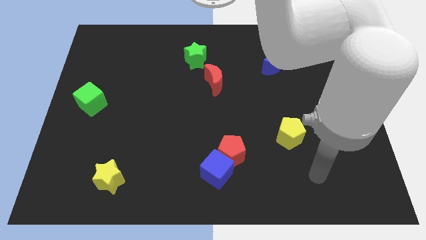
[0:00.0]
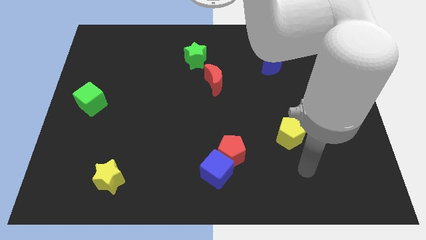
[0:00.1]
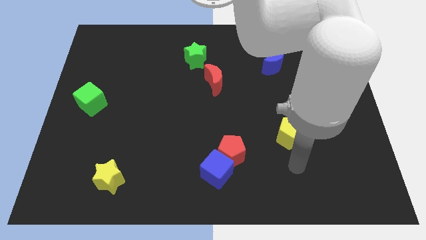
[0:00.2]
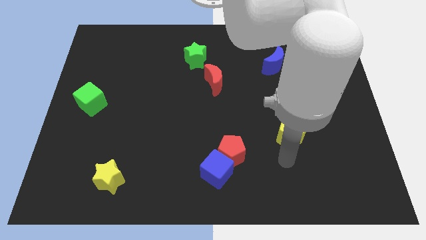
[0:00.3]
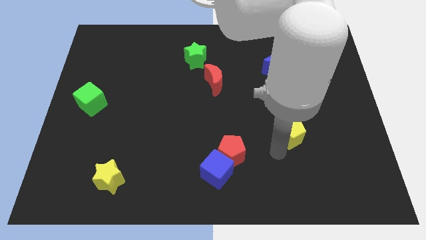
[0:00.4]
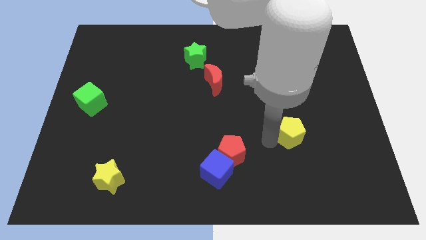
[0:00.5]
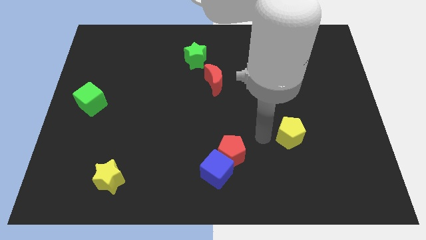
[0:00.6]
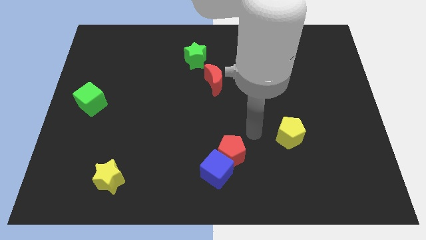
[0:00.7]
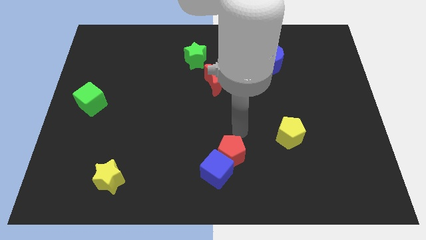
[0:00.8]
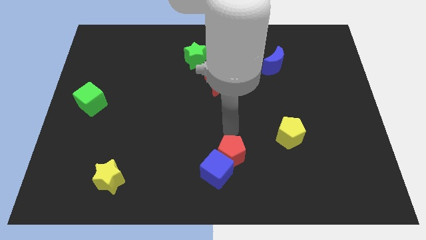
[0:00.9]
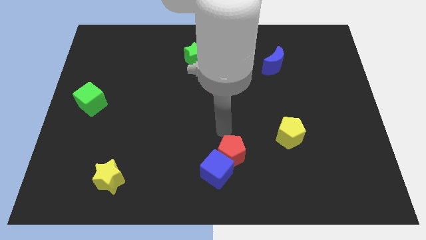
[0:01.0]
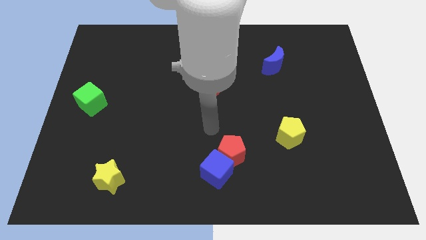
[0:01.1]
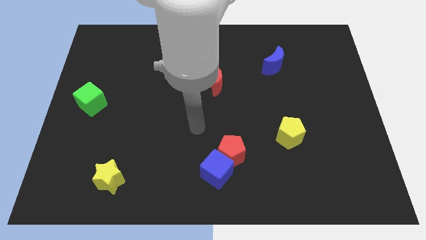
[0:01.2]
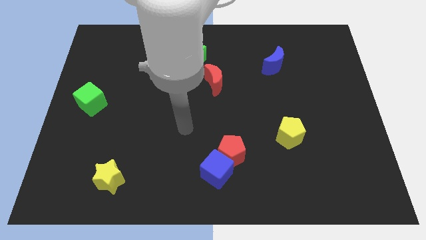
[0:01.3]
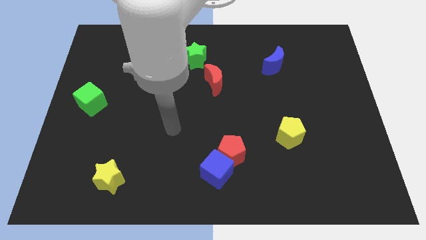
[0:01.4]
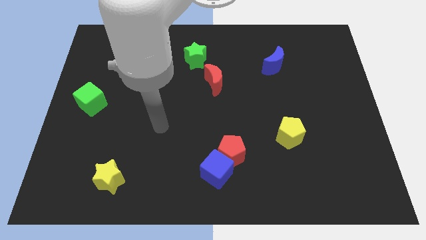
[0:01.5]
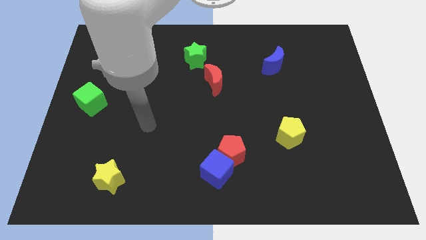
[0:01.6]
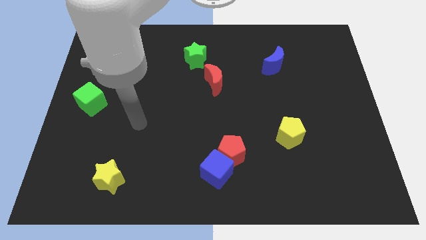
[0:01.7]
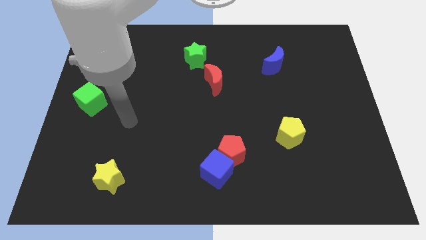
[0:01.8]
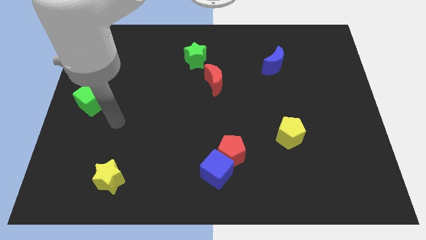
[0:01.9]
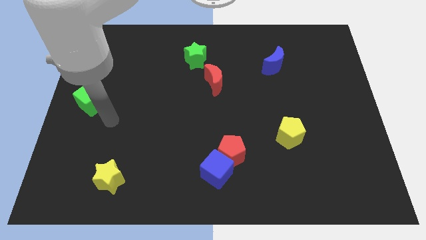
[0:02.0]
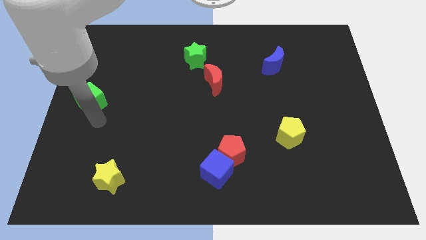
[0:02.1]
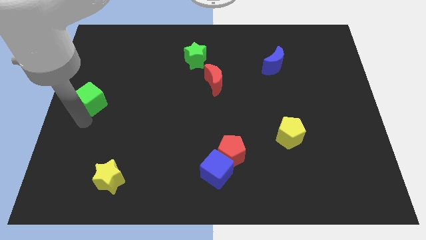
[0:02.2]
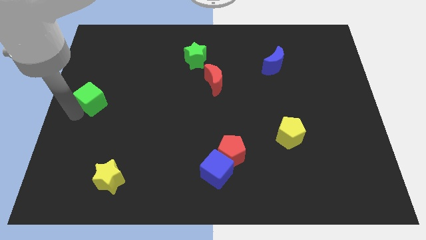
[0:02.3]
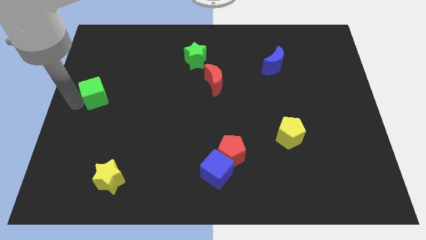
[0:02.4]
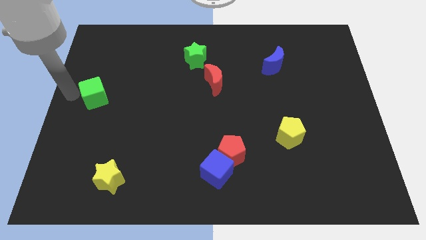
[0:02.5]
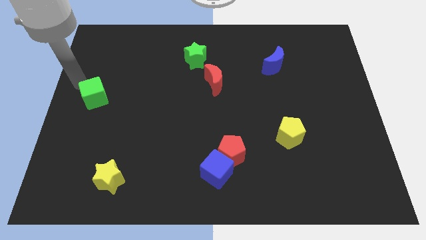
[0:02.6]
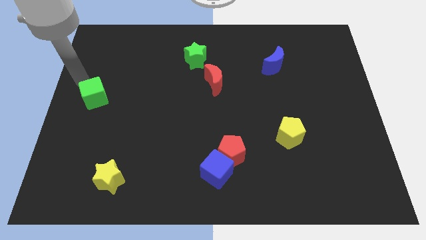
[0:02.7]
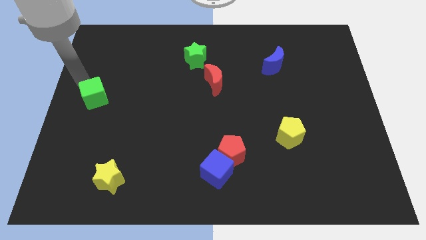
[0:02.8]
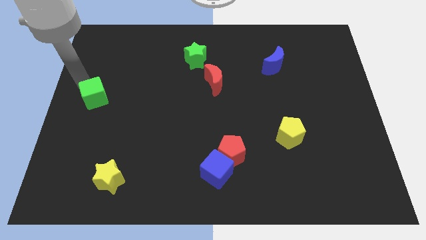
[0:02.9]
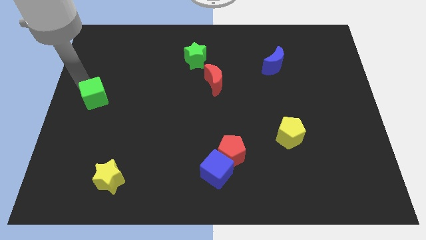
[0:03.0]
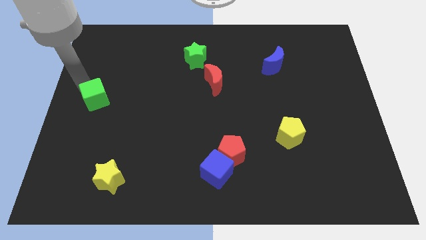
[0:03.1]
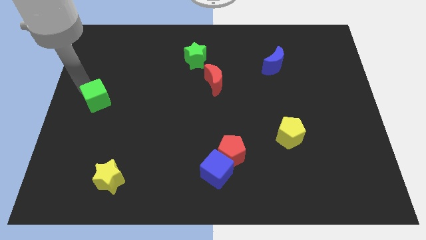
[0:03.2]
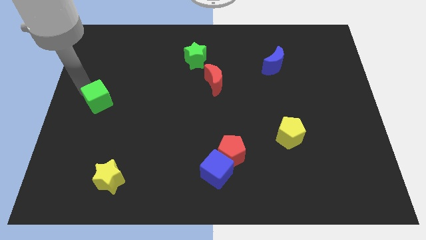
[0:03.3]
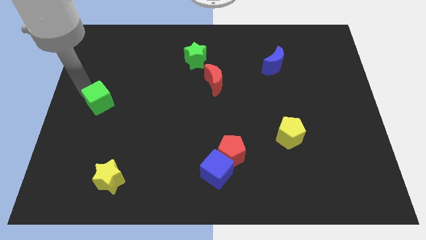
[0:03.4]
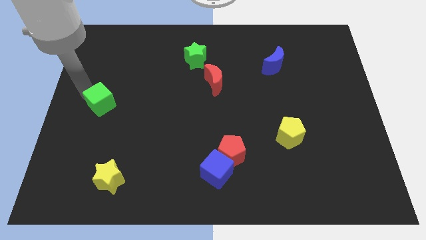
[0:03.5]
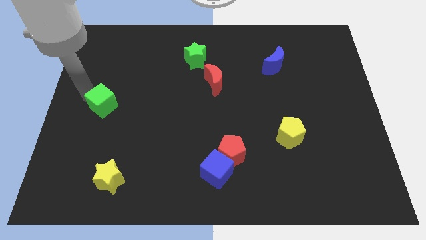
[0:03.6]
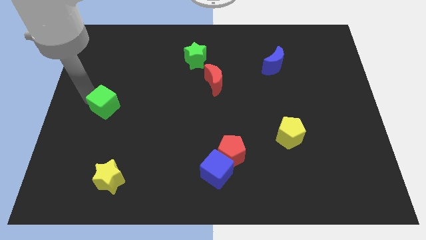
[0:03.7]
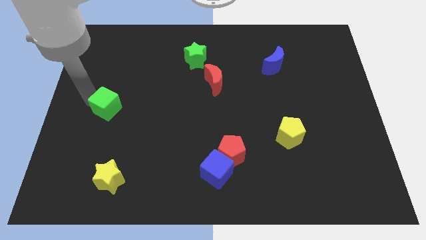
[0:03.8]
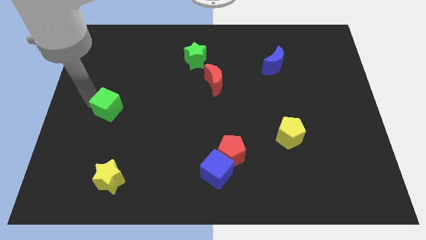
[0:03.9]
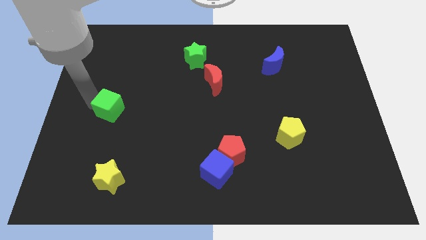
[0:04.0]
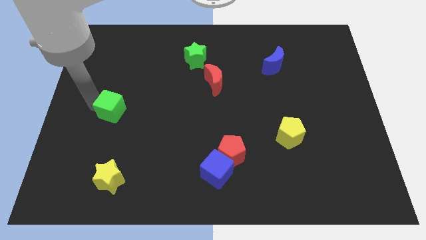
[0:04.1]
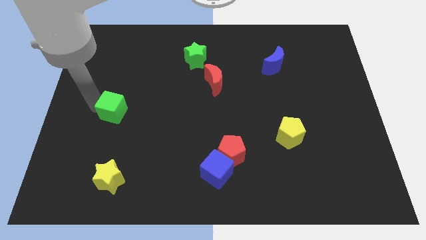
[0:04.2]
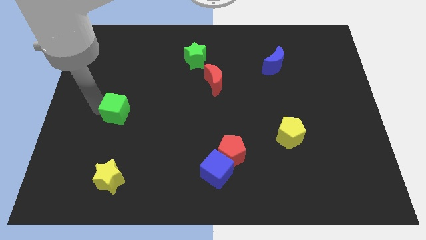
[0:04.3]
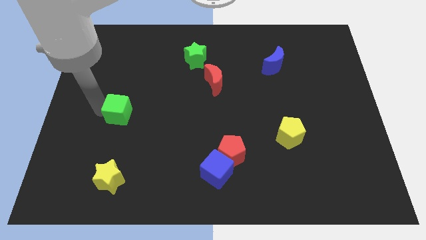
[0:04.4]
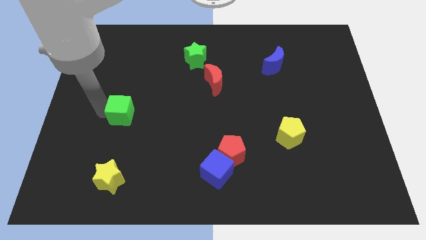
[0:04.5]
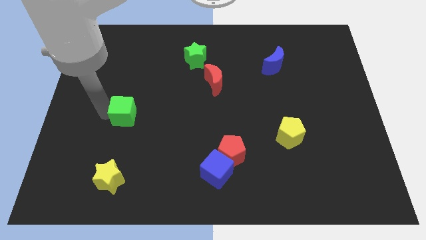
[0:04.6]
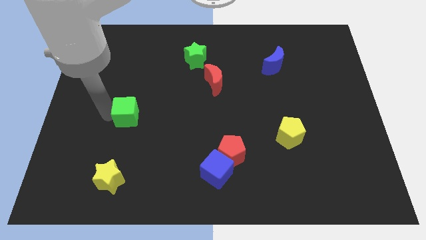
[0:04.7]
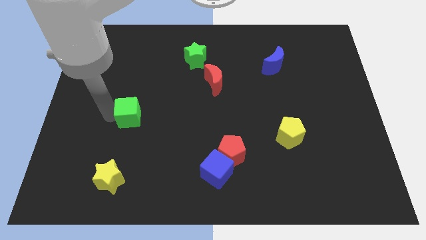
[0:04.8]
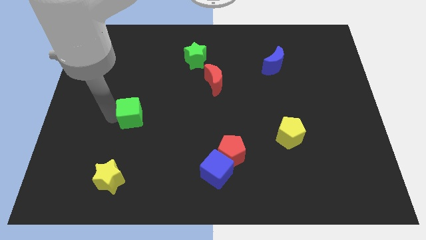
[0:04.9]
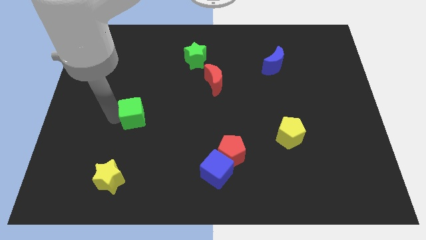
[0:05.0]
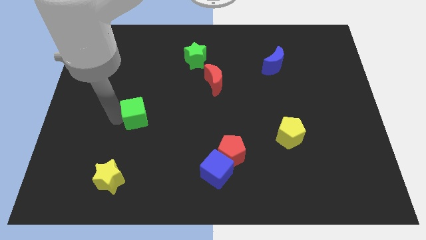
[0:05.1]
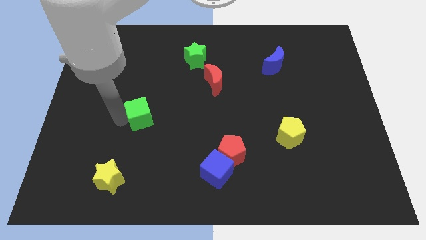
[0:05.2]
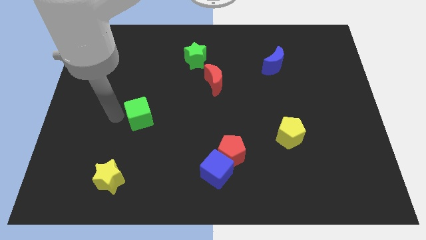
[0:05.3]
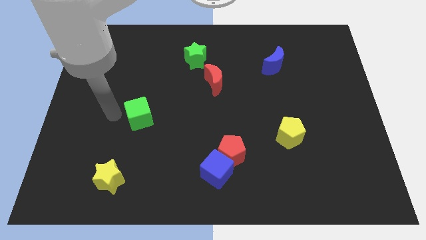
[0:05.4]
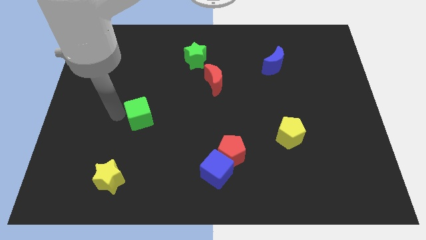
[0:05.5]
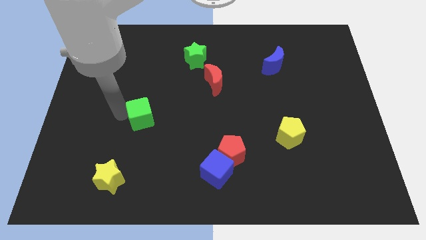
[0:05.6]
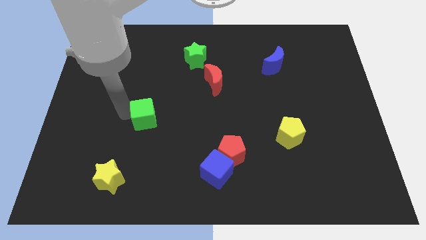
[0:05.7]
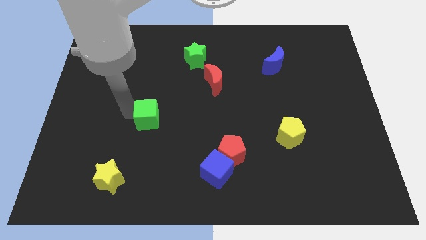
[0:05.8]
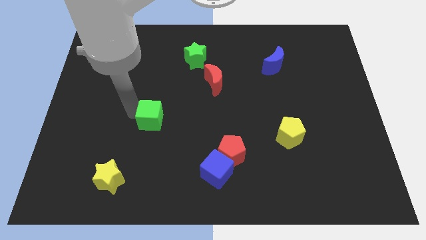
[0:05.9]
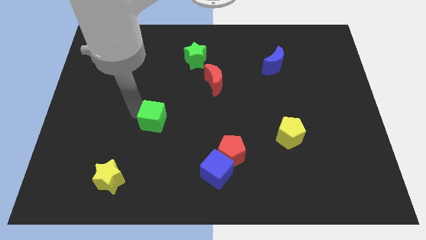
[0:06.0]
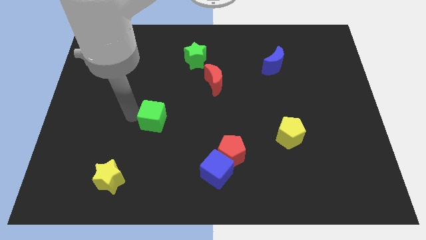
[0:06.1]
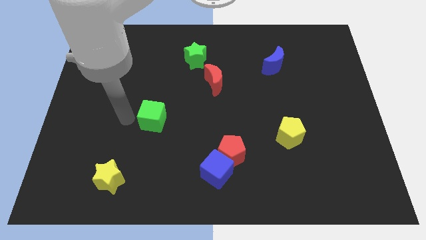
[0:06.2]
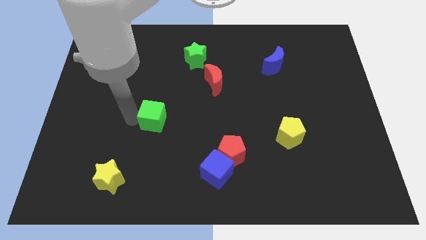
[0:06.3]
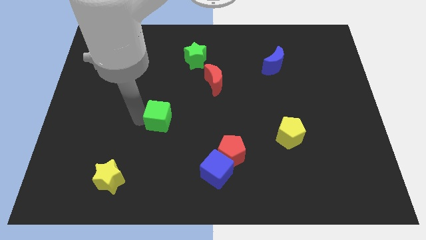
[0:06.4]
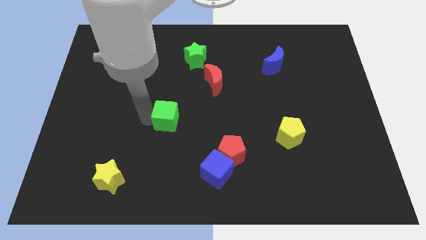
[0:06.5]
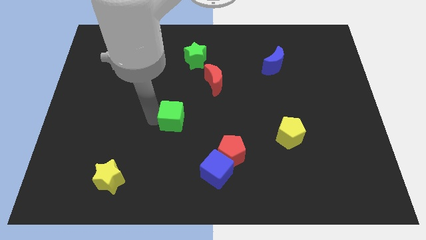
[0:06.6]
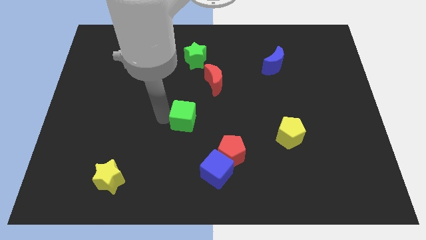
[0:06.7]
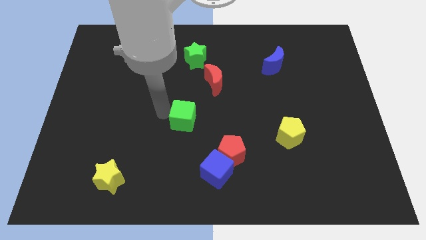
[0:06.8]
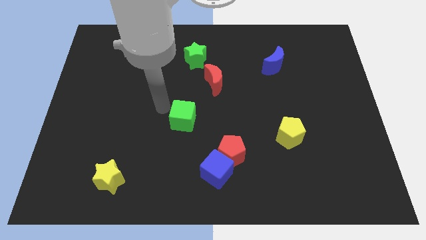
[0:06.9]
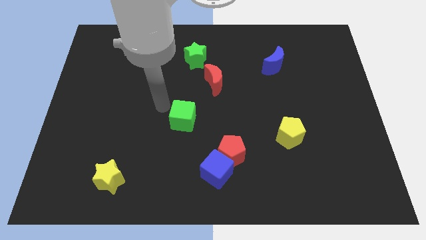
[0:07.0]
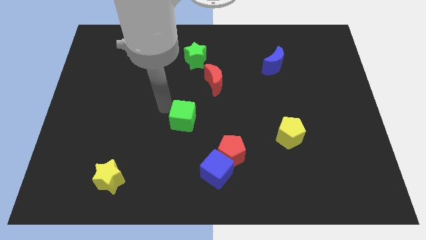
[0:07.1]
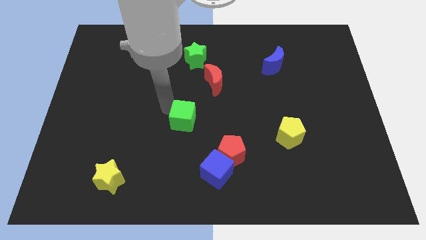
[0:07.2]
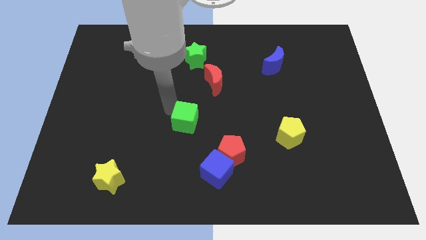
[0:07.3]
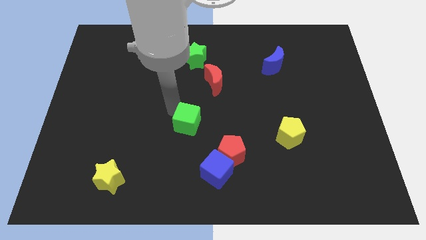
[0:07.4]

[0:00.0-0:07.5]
put the green cube diagonally up and to the left of the red pentagon
